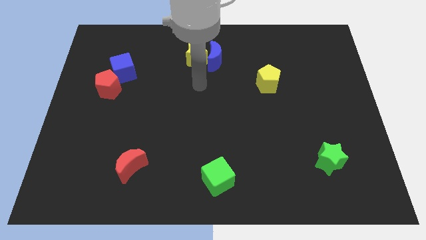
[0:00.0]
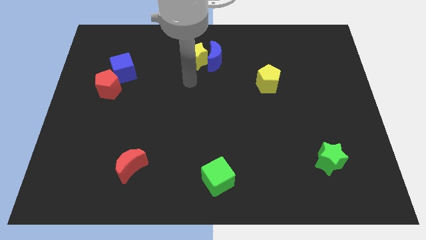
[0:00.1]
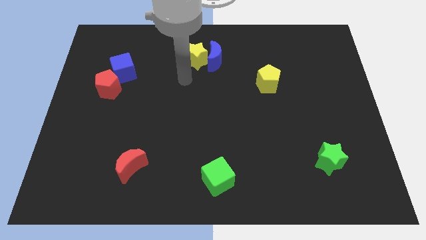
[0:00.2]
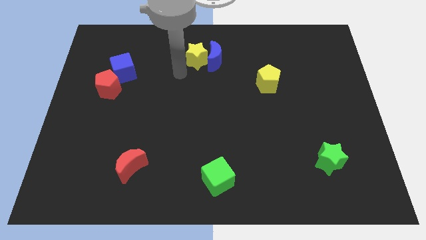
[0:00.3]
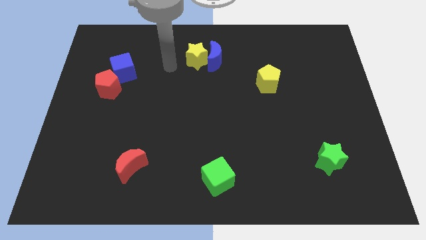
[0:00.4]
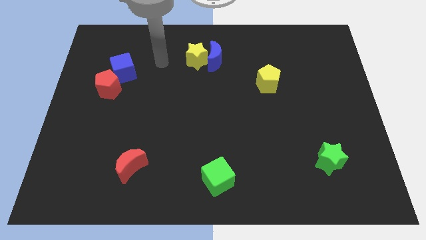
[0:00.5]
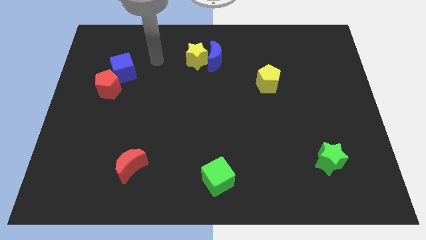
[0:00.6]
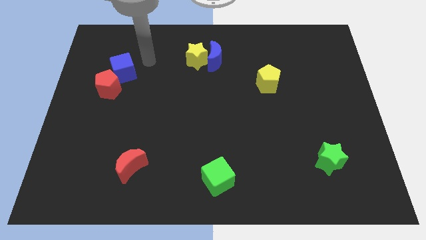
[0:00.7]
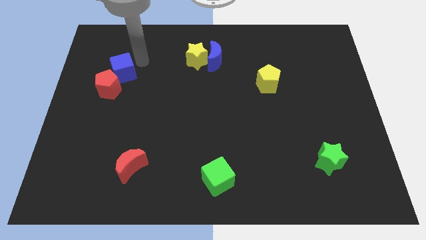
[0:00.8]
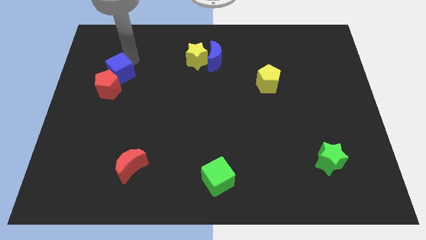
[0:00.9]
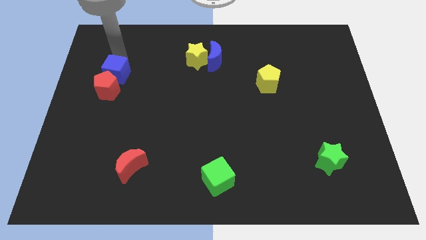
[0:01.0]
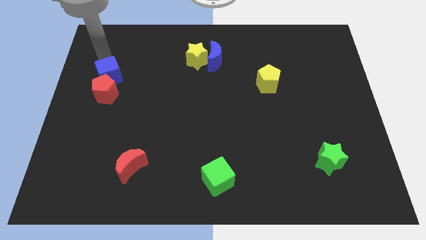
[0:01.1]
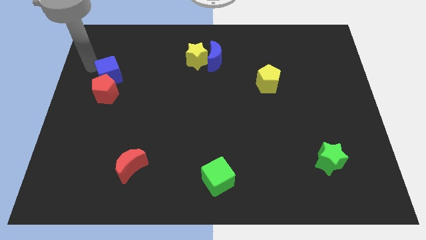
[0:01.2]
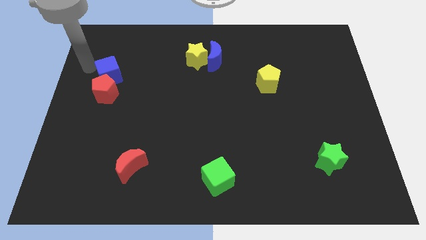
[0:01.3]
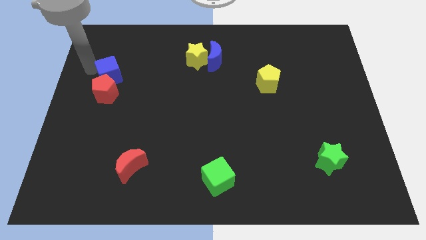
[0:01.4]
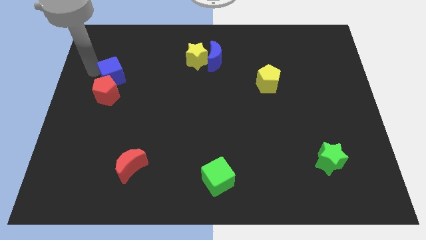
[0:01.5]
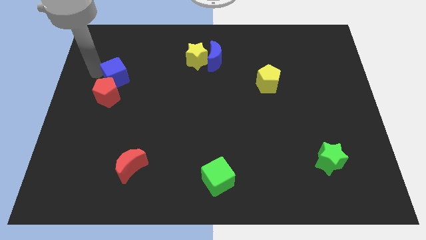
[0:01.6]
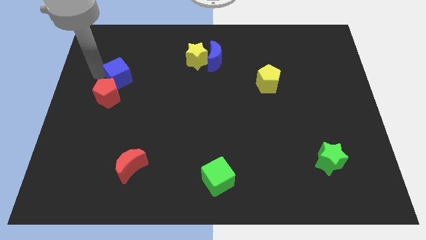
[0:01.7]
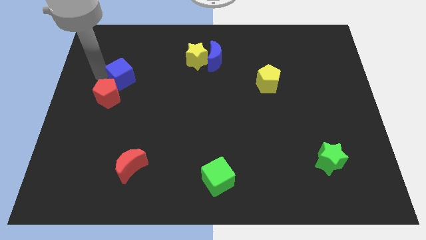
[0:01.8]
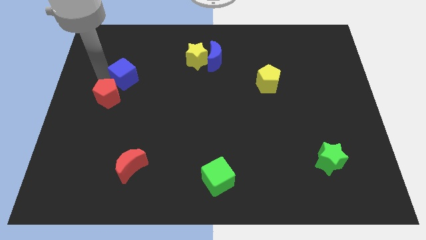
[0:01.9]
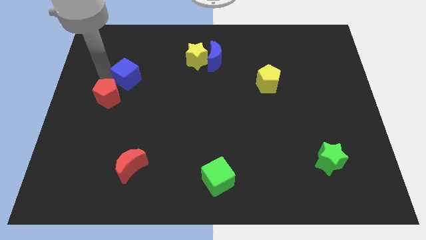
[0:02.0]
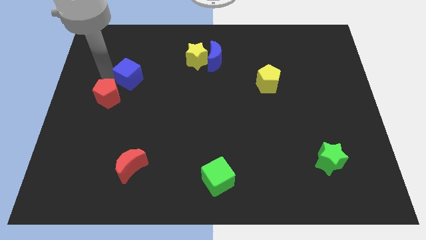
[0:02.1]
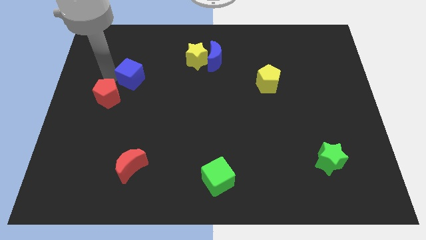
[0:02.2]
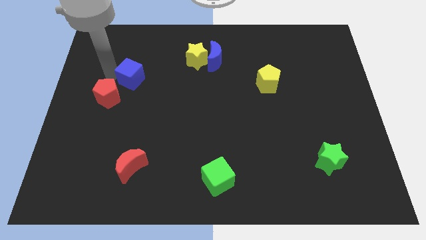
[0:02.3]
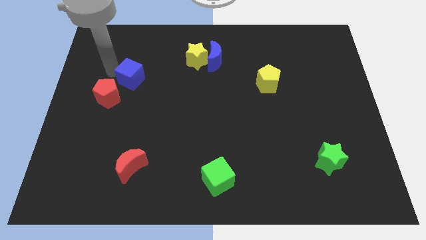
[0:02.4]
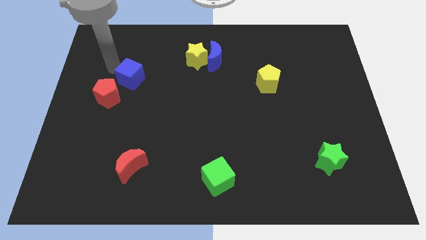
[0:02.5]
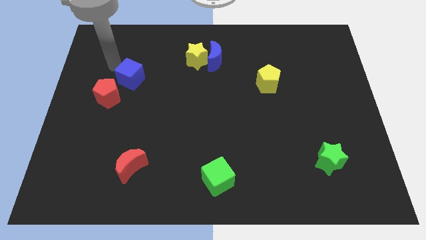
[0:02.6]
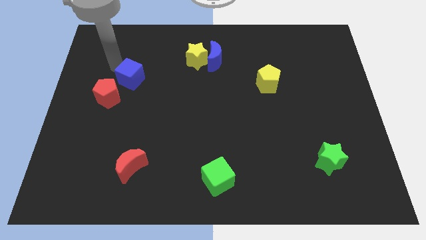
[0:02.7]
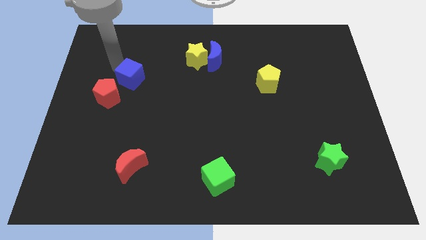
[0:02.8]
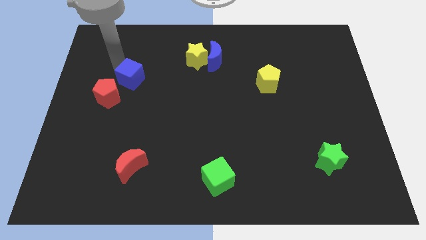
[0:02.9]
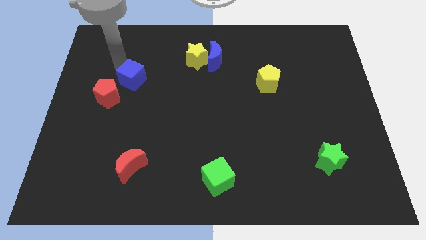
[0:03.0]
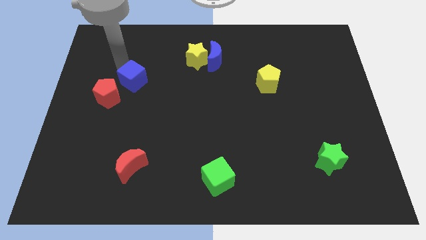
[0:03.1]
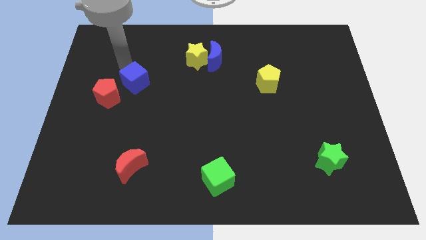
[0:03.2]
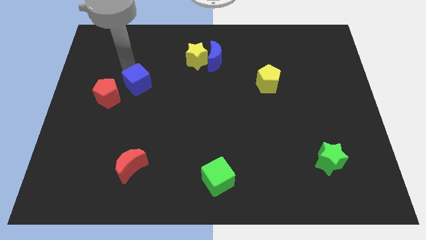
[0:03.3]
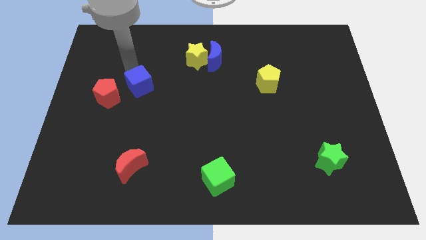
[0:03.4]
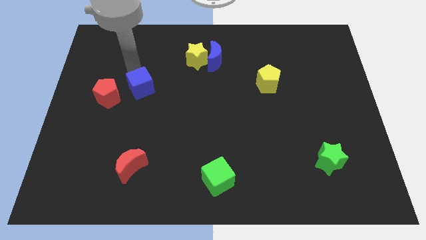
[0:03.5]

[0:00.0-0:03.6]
slightly push the blue cube diagonally down and right

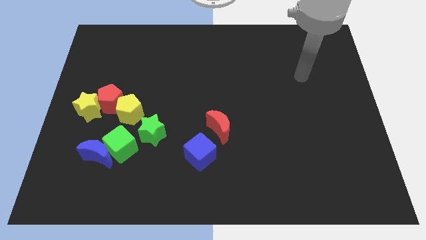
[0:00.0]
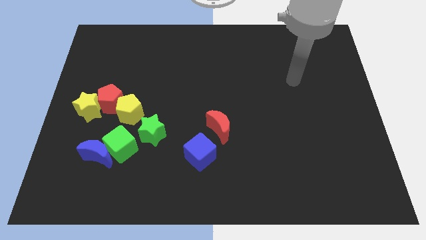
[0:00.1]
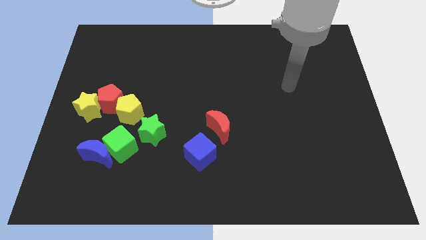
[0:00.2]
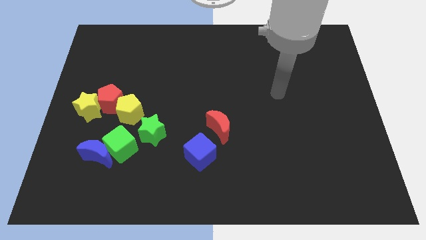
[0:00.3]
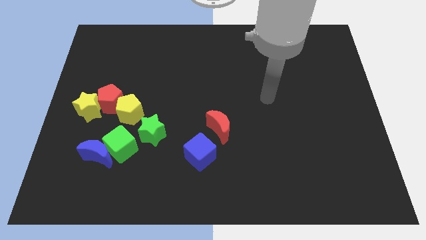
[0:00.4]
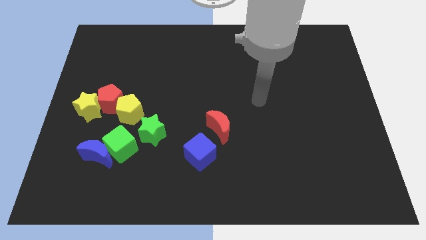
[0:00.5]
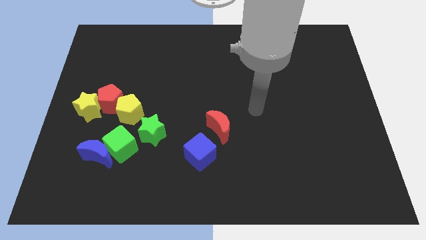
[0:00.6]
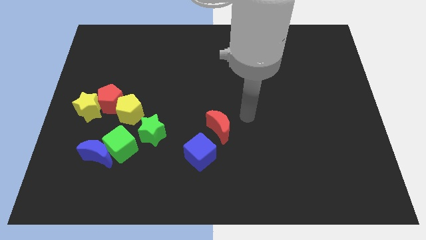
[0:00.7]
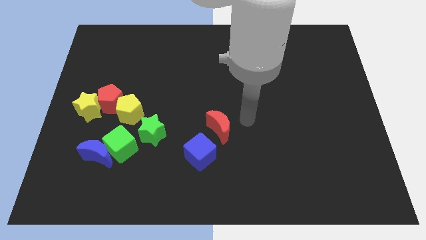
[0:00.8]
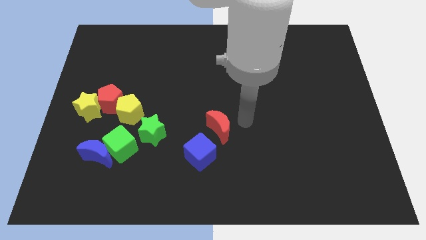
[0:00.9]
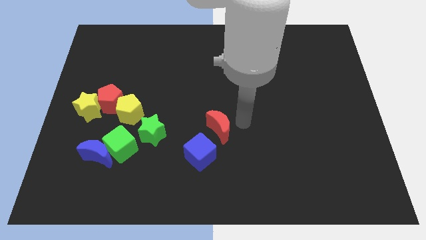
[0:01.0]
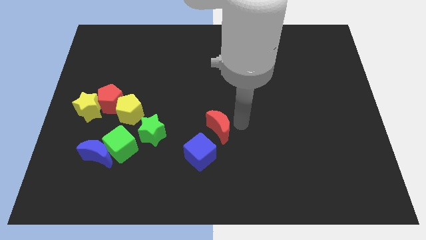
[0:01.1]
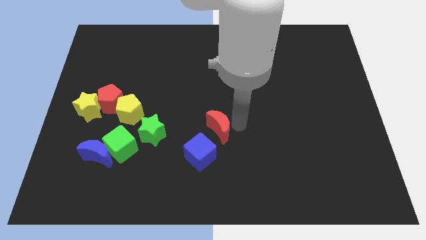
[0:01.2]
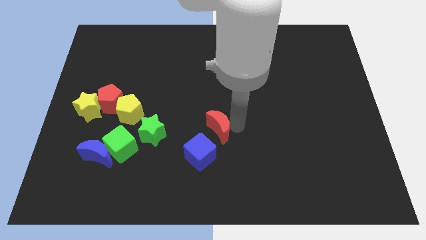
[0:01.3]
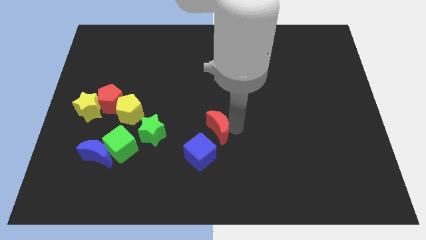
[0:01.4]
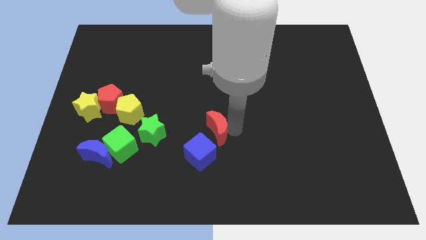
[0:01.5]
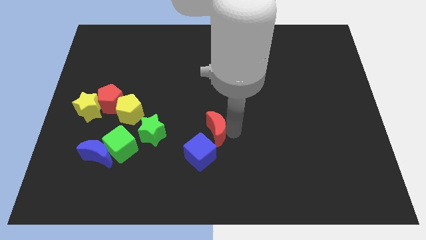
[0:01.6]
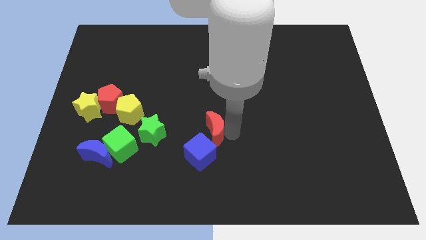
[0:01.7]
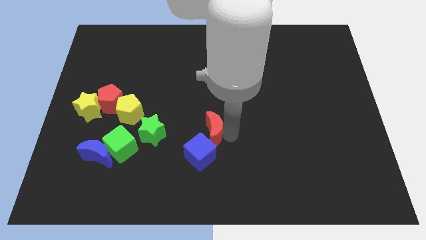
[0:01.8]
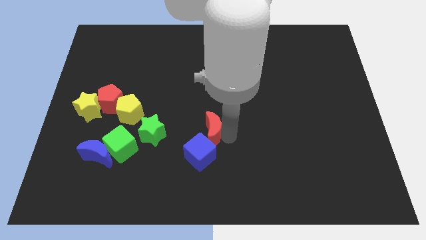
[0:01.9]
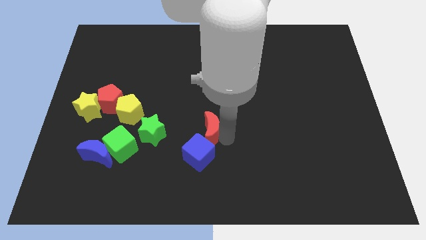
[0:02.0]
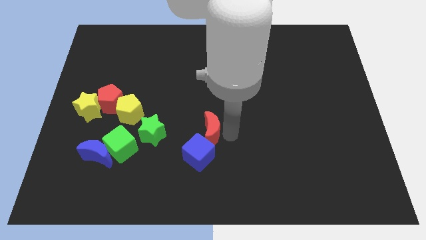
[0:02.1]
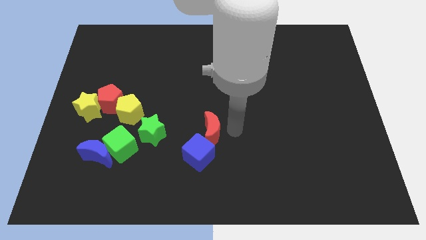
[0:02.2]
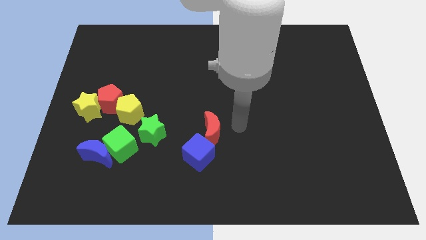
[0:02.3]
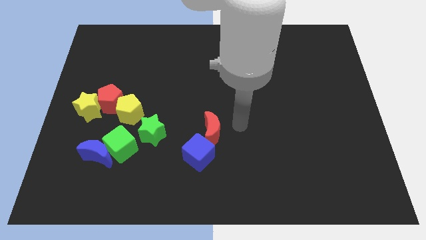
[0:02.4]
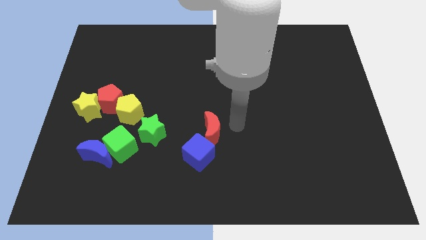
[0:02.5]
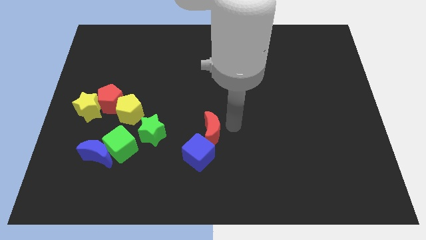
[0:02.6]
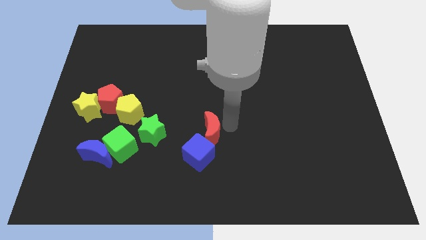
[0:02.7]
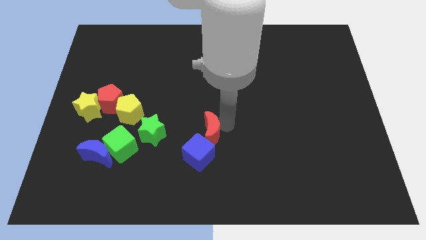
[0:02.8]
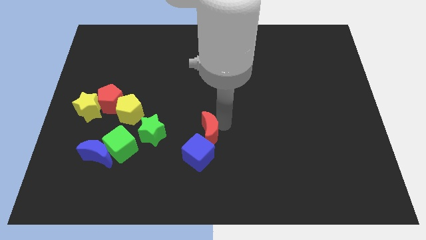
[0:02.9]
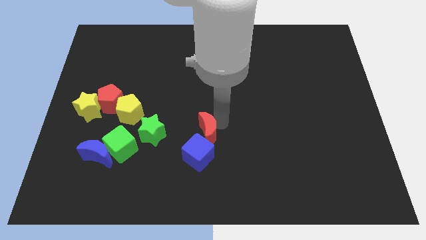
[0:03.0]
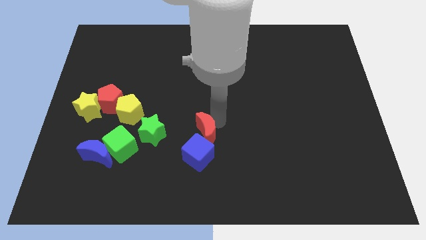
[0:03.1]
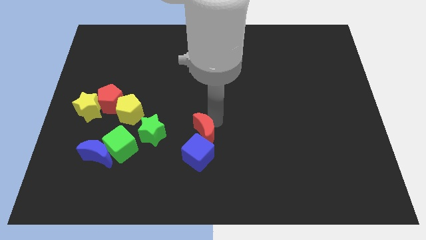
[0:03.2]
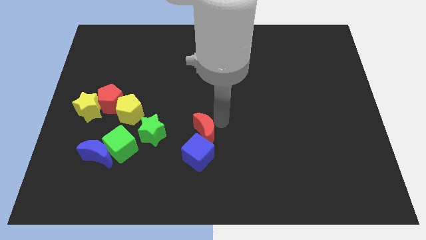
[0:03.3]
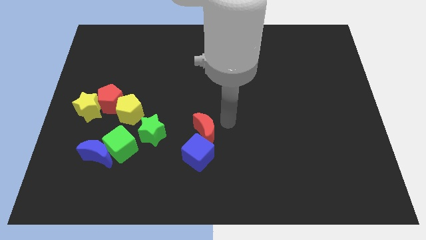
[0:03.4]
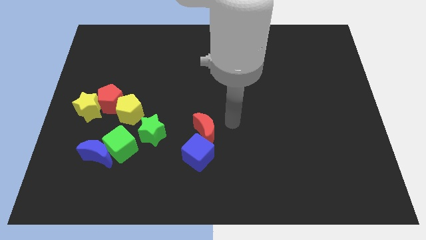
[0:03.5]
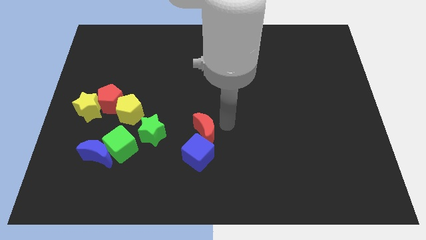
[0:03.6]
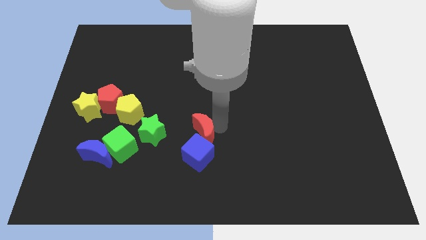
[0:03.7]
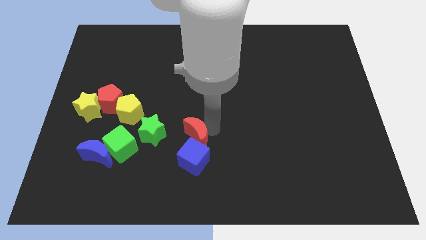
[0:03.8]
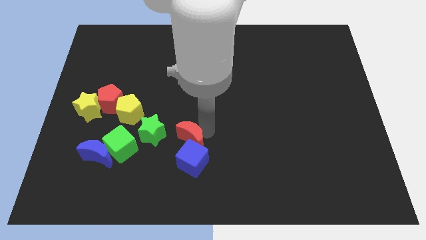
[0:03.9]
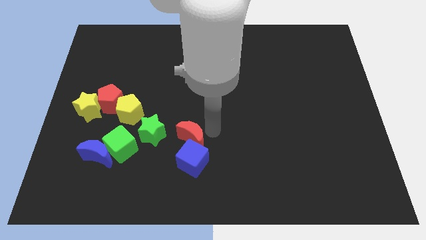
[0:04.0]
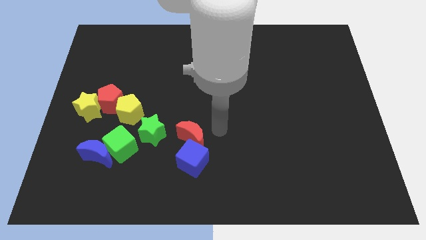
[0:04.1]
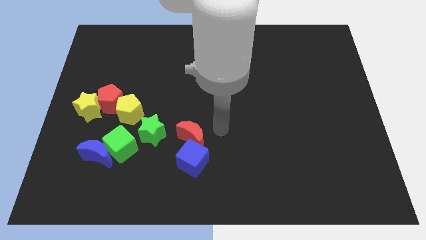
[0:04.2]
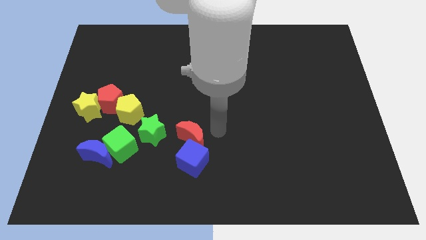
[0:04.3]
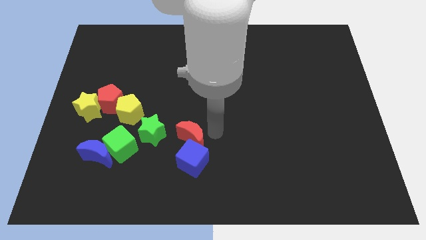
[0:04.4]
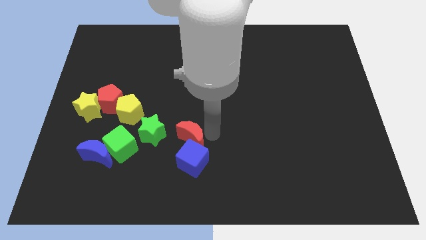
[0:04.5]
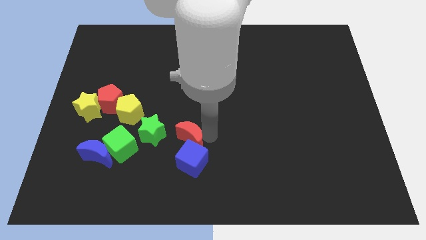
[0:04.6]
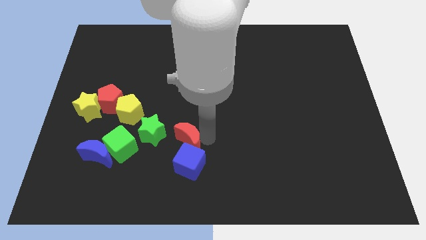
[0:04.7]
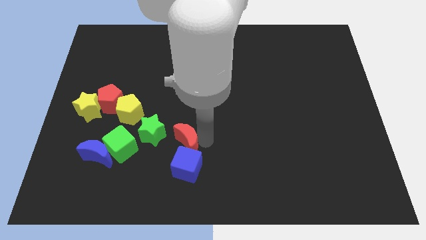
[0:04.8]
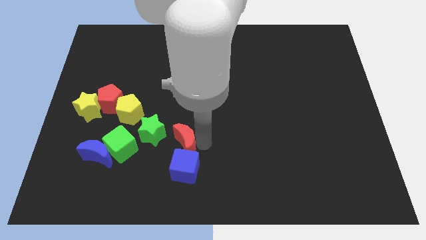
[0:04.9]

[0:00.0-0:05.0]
slightly slide the red moon left
